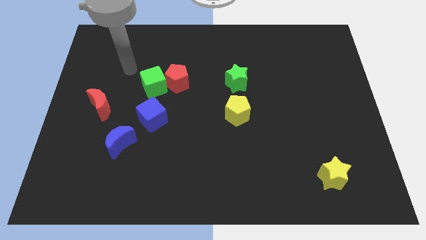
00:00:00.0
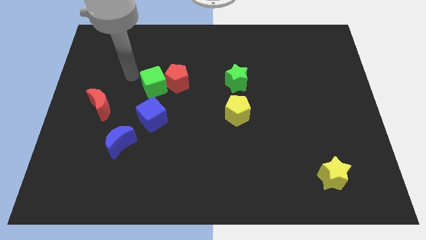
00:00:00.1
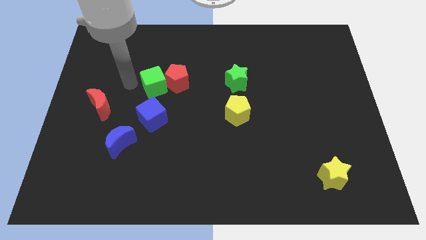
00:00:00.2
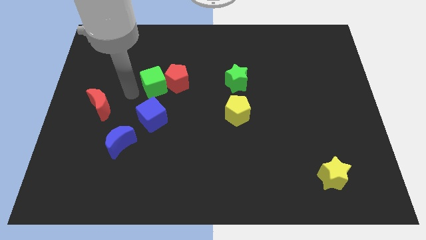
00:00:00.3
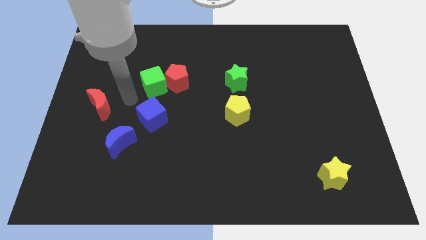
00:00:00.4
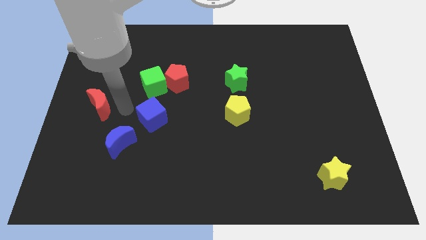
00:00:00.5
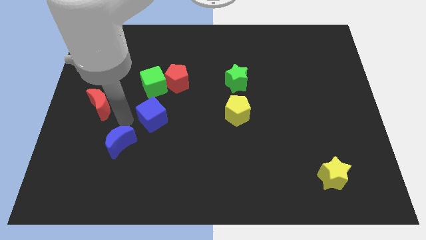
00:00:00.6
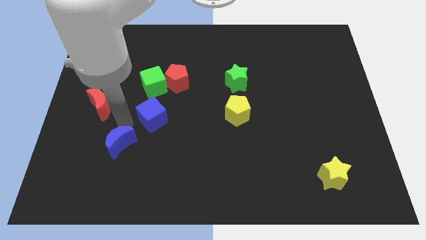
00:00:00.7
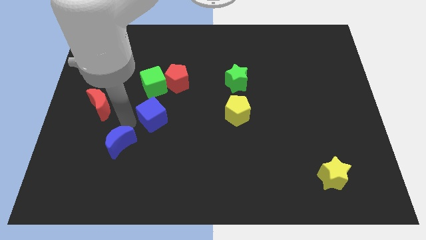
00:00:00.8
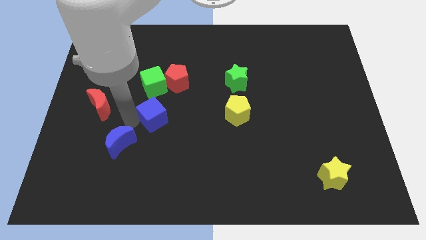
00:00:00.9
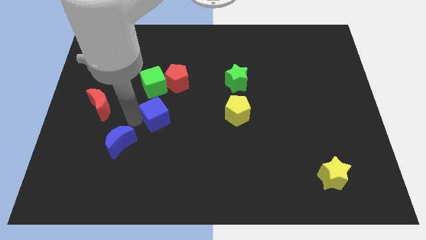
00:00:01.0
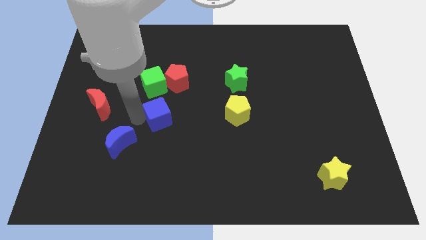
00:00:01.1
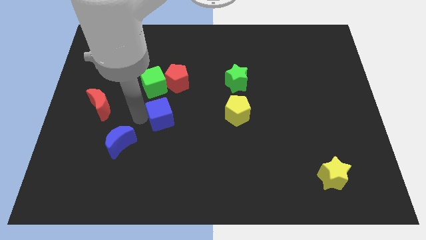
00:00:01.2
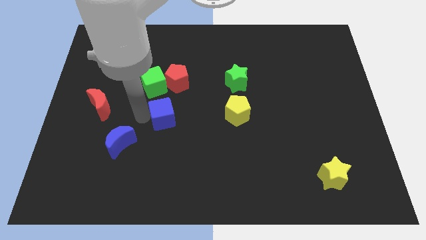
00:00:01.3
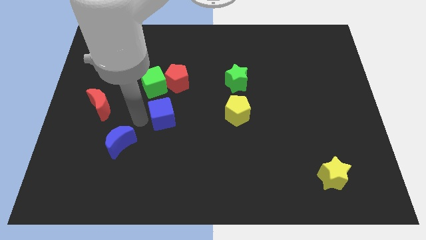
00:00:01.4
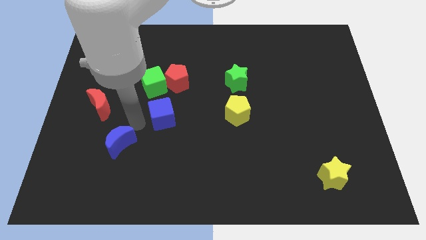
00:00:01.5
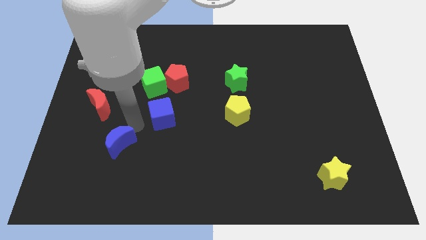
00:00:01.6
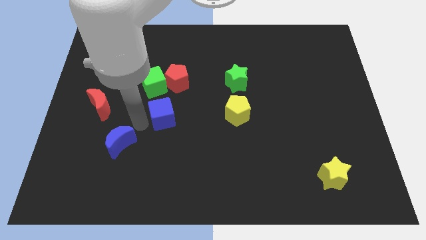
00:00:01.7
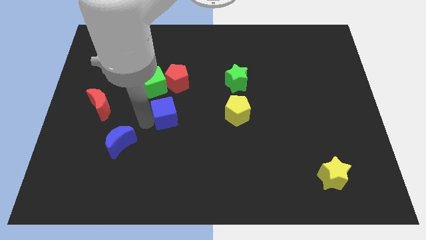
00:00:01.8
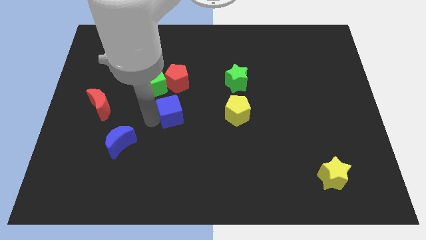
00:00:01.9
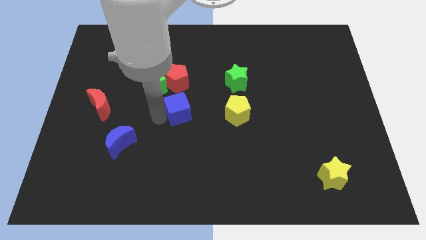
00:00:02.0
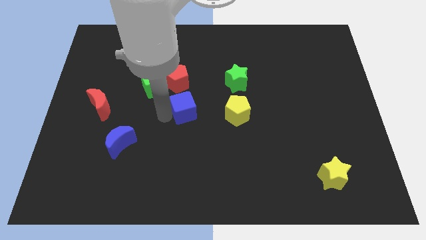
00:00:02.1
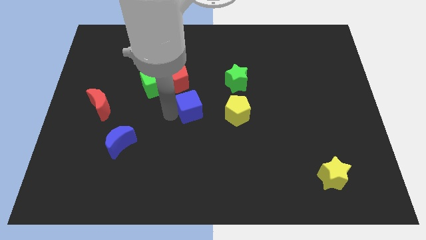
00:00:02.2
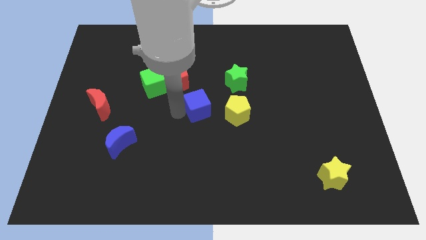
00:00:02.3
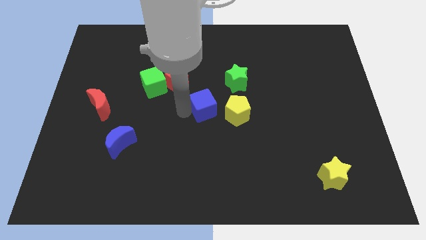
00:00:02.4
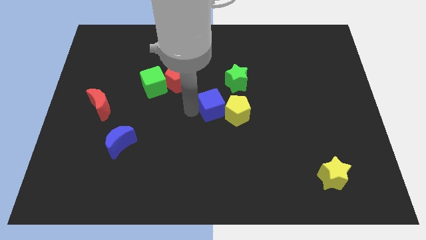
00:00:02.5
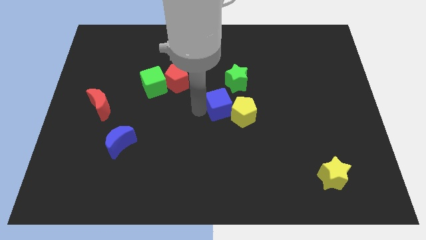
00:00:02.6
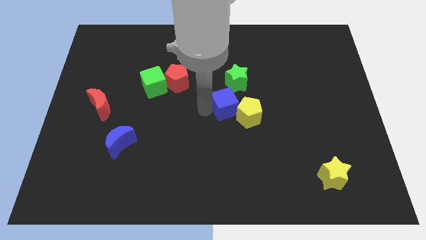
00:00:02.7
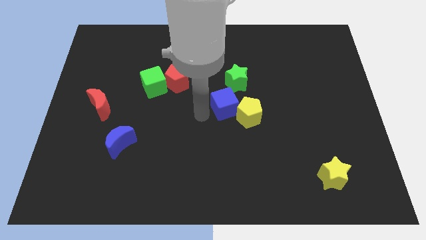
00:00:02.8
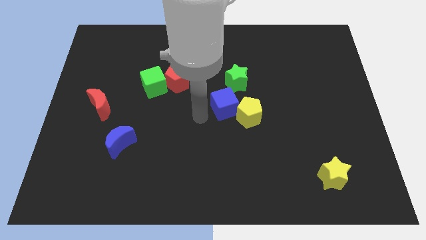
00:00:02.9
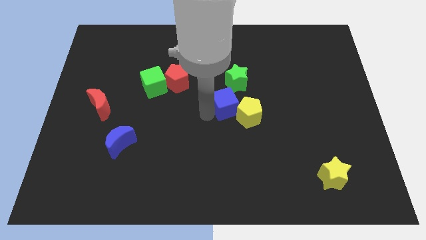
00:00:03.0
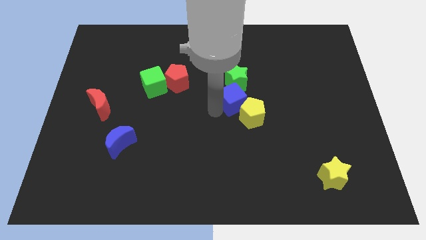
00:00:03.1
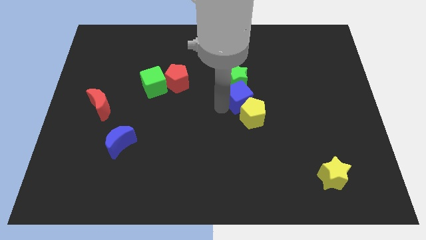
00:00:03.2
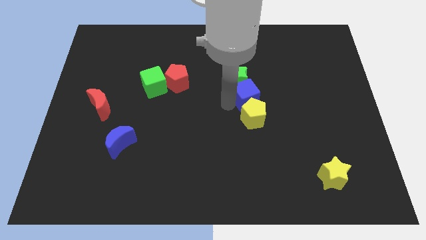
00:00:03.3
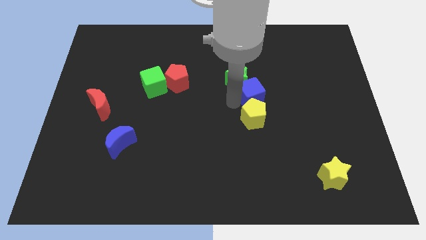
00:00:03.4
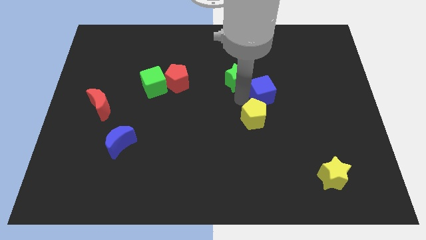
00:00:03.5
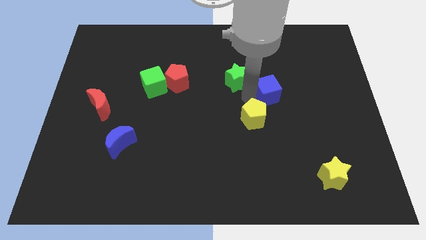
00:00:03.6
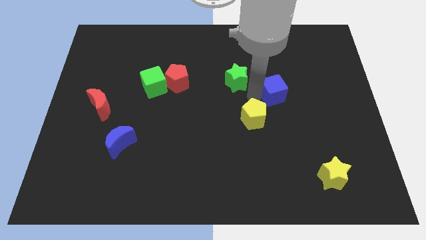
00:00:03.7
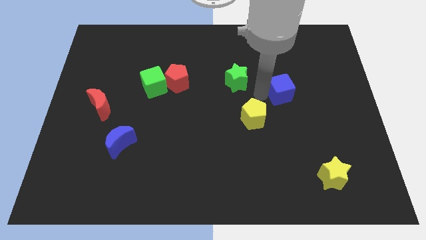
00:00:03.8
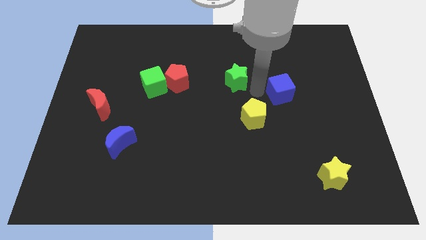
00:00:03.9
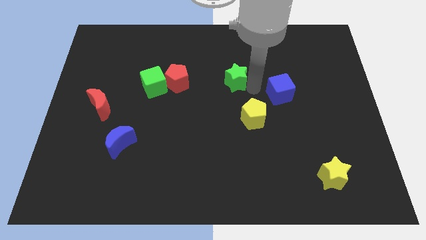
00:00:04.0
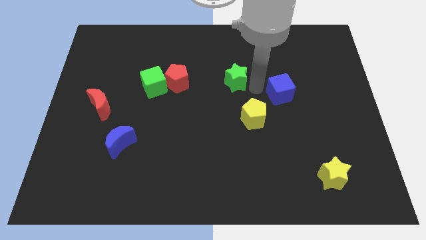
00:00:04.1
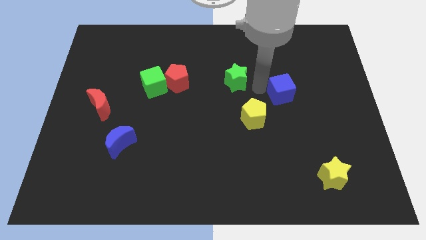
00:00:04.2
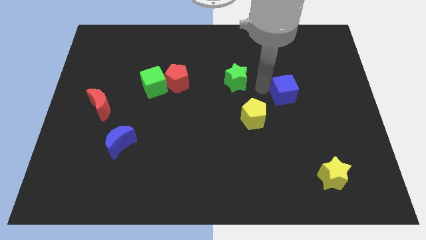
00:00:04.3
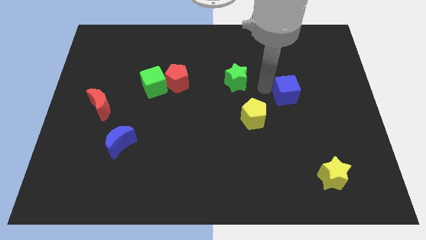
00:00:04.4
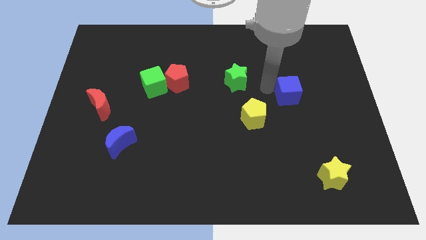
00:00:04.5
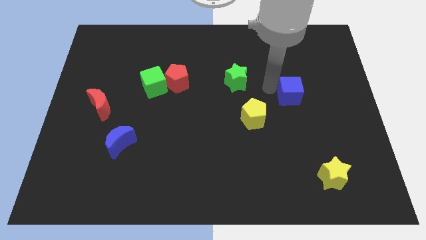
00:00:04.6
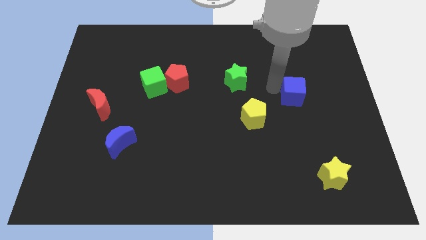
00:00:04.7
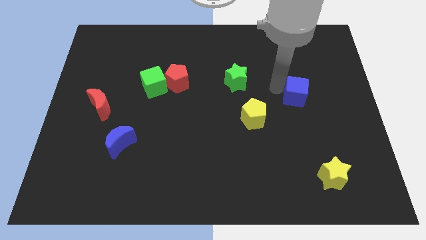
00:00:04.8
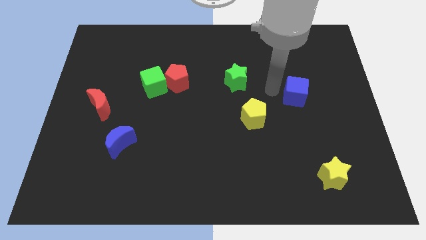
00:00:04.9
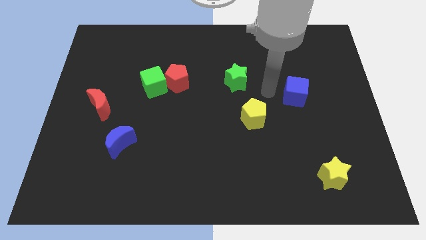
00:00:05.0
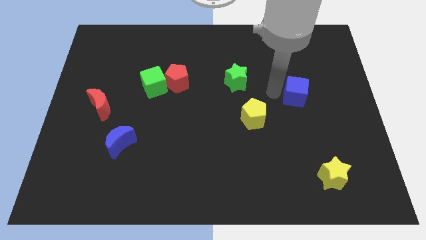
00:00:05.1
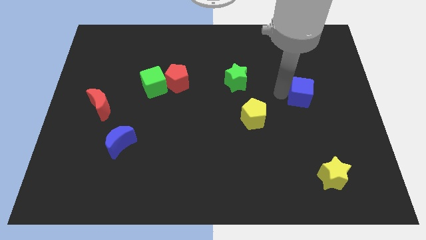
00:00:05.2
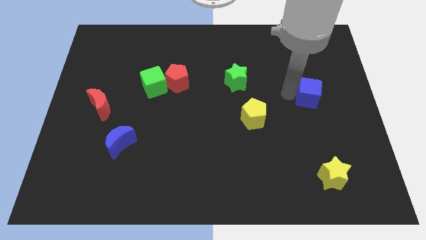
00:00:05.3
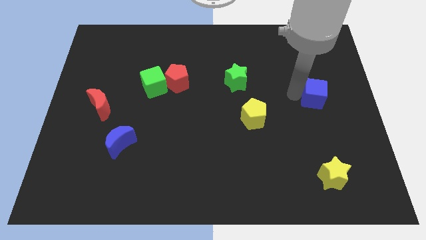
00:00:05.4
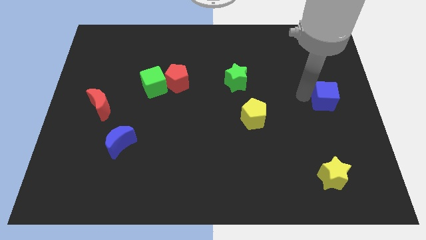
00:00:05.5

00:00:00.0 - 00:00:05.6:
put the blue cube to the right side
